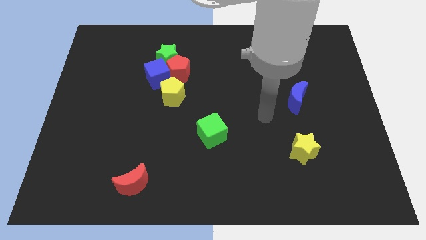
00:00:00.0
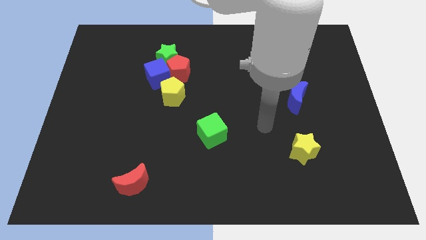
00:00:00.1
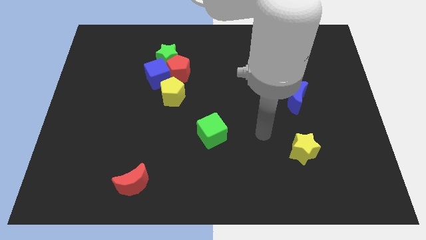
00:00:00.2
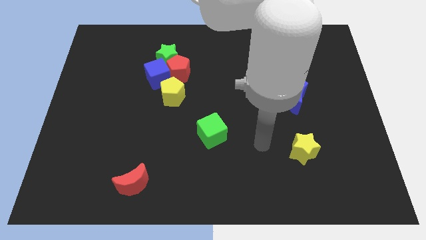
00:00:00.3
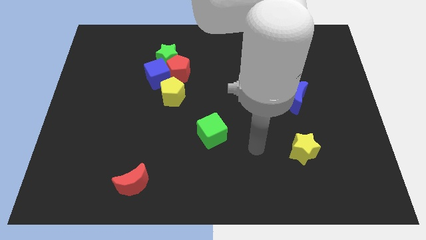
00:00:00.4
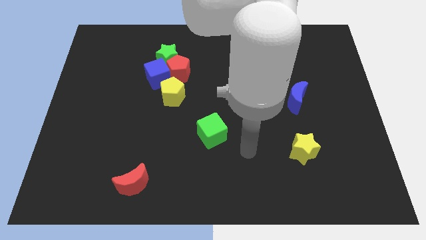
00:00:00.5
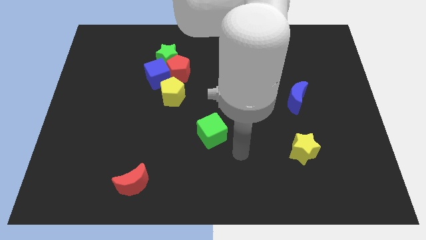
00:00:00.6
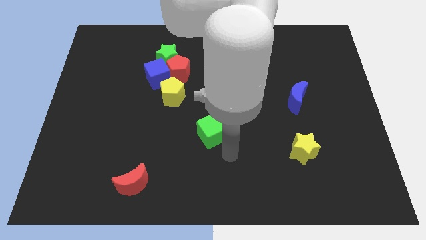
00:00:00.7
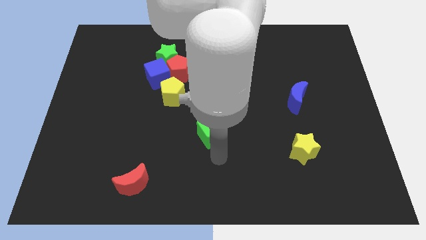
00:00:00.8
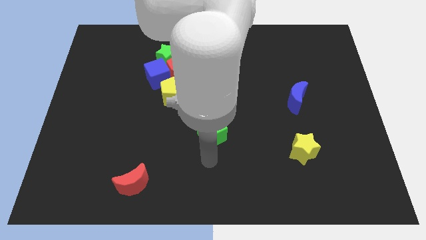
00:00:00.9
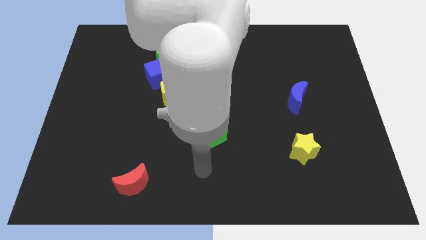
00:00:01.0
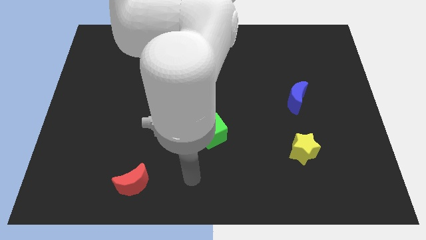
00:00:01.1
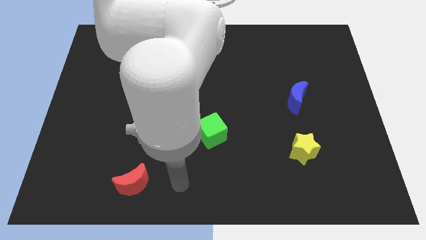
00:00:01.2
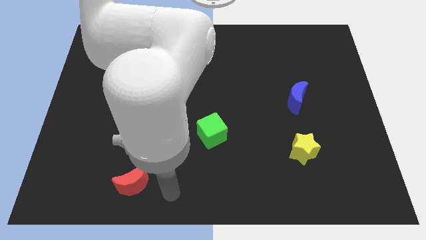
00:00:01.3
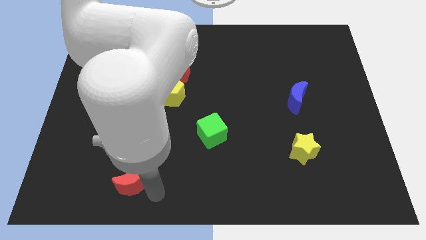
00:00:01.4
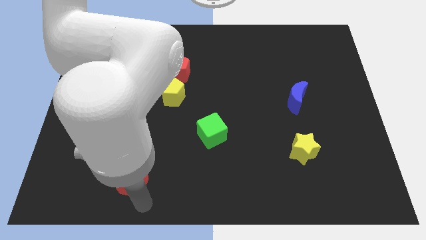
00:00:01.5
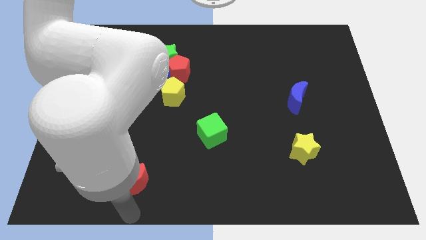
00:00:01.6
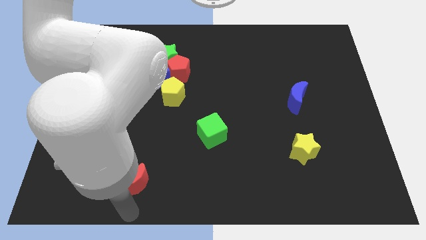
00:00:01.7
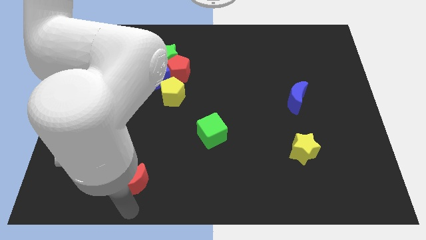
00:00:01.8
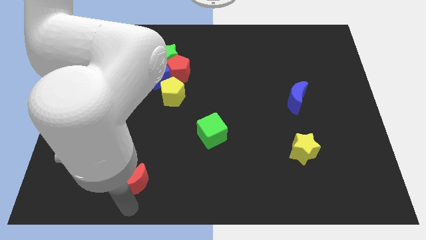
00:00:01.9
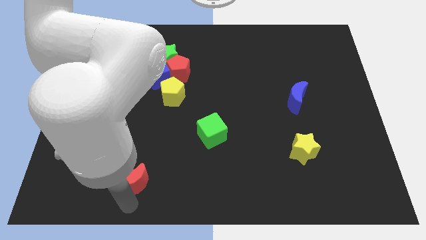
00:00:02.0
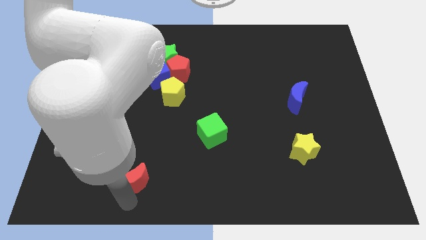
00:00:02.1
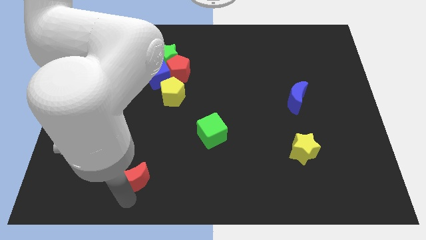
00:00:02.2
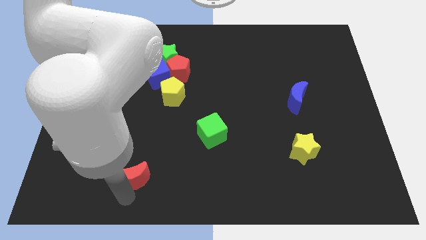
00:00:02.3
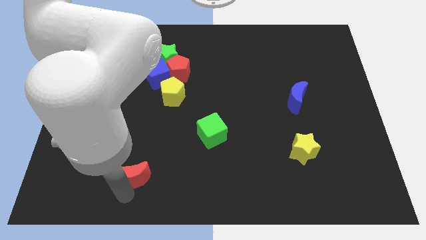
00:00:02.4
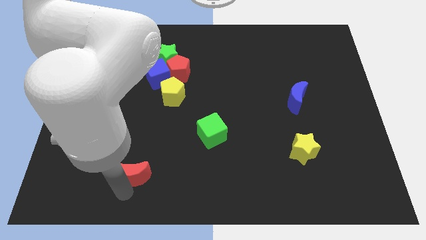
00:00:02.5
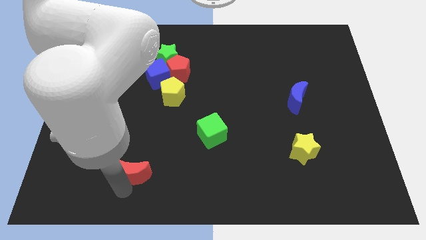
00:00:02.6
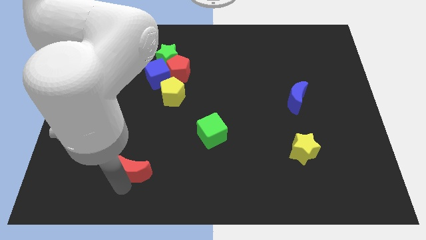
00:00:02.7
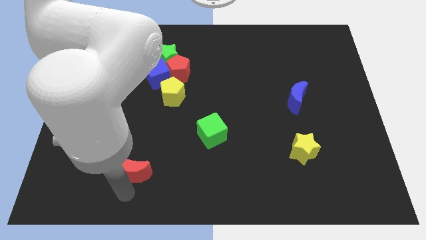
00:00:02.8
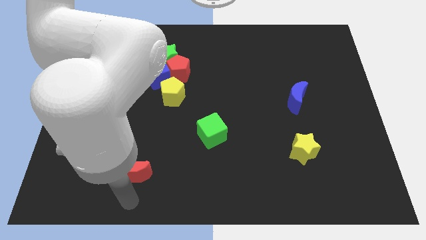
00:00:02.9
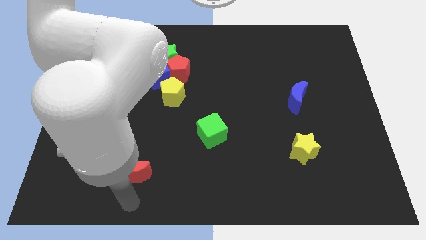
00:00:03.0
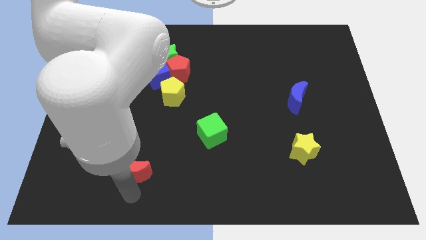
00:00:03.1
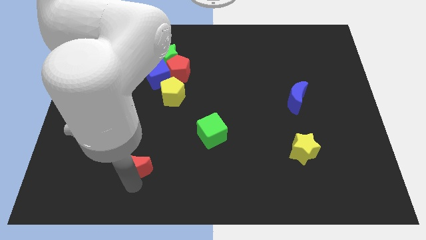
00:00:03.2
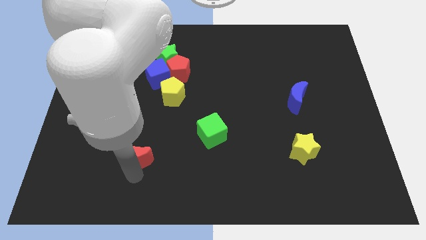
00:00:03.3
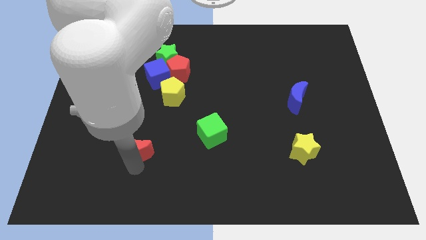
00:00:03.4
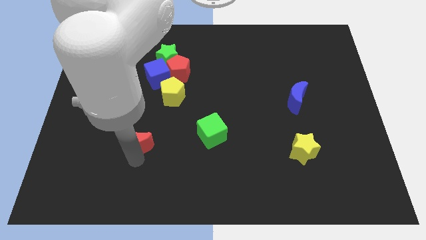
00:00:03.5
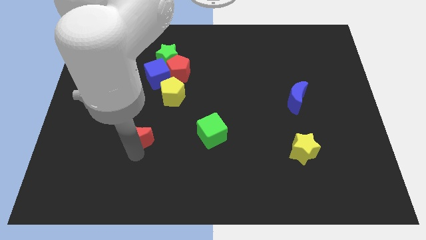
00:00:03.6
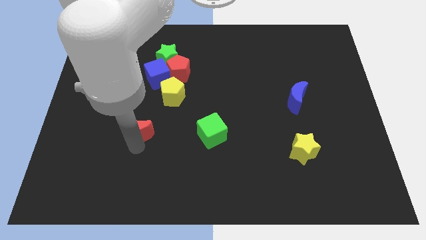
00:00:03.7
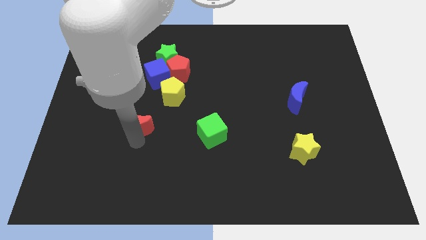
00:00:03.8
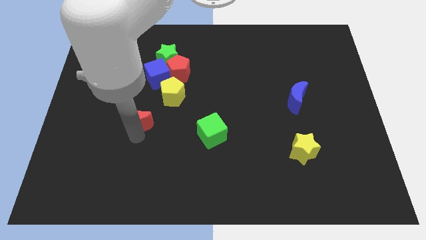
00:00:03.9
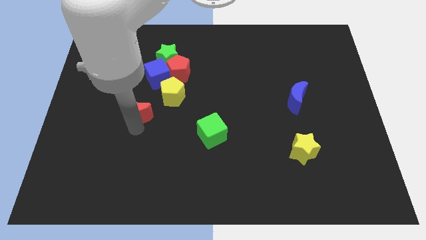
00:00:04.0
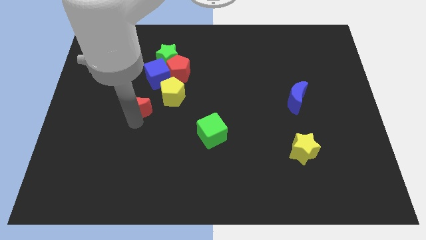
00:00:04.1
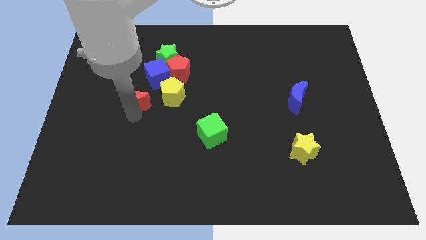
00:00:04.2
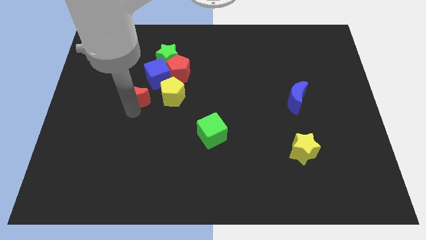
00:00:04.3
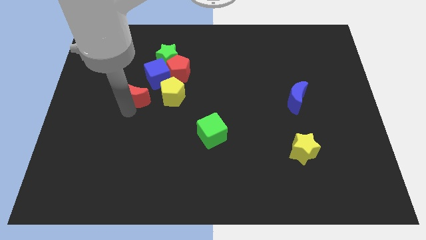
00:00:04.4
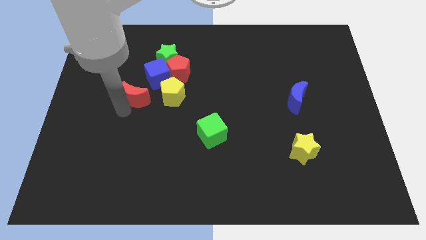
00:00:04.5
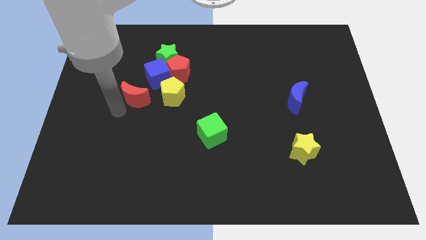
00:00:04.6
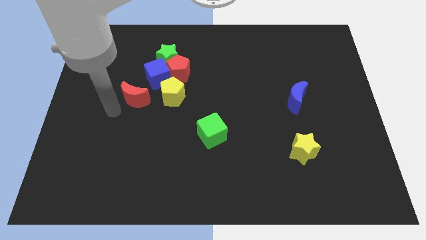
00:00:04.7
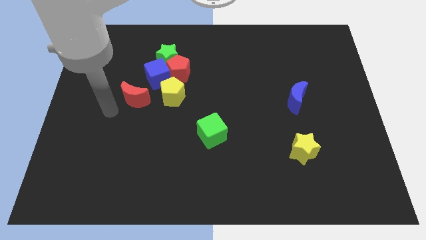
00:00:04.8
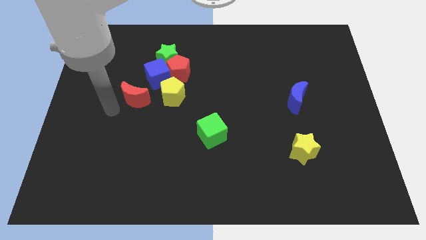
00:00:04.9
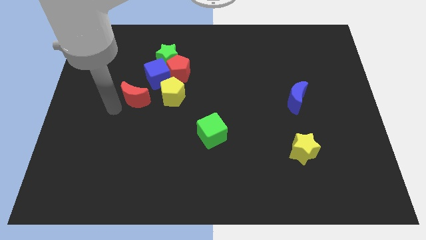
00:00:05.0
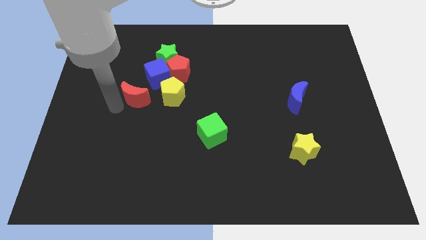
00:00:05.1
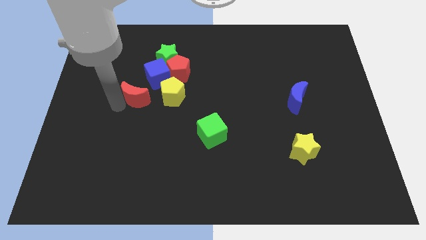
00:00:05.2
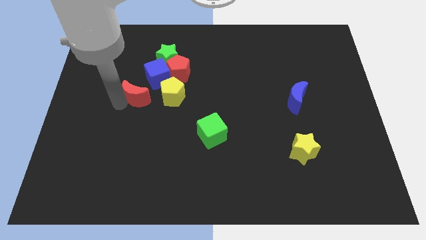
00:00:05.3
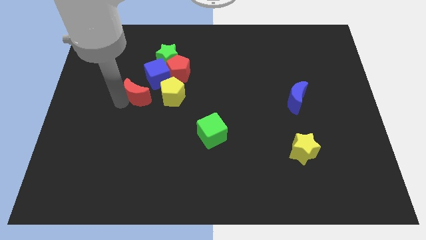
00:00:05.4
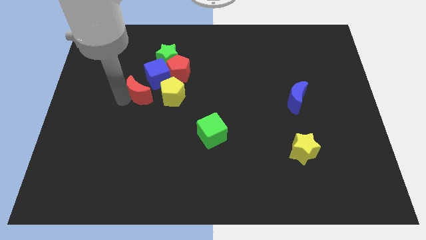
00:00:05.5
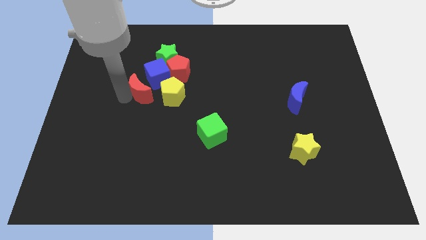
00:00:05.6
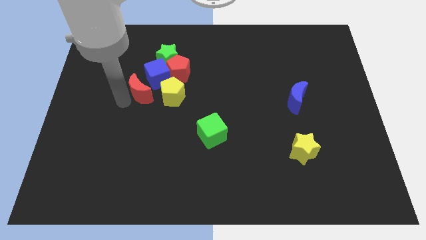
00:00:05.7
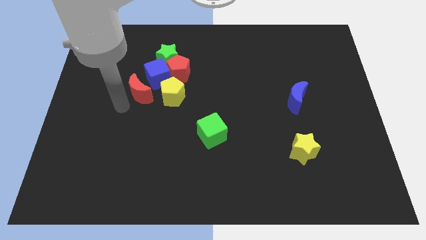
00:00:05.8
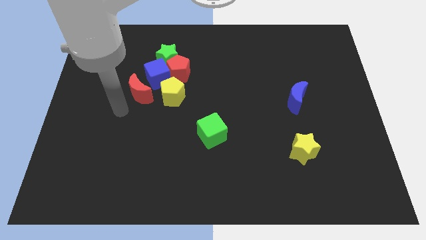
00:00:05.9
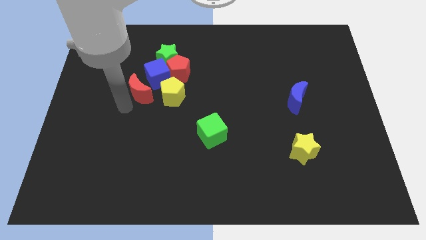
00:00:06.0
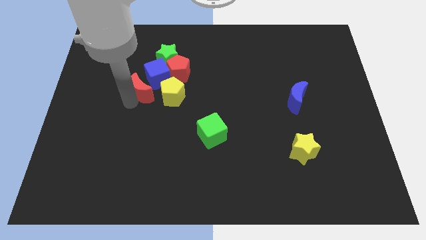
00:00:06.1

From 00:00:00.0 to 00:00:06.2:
slide the red moon close to the blue cube
